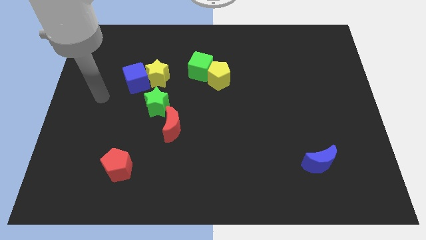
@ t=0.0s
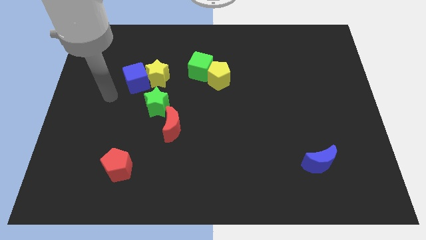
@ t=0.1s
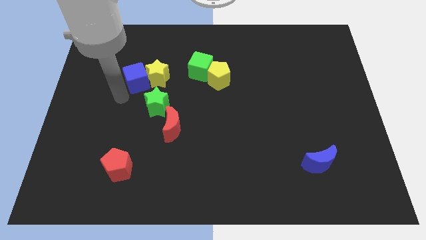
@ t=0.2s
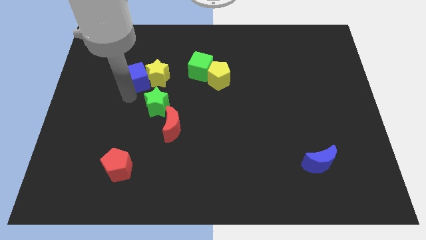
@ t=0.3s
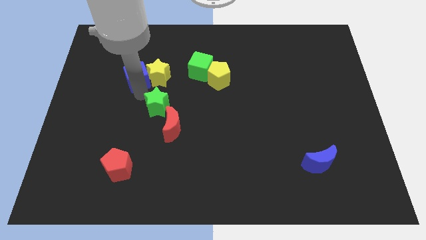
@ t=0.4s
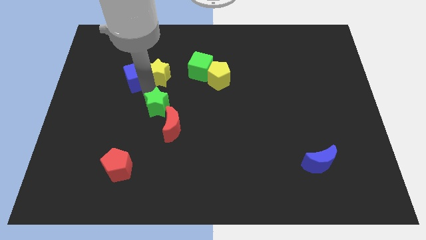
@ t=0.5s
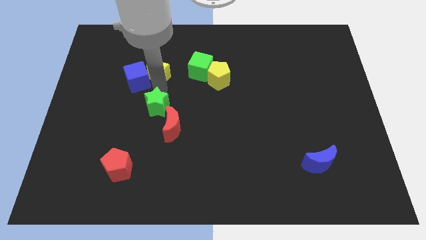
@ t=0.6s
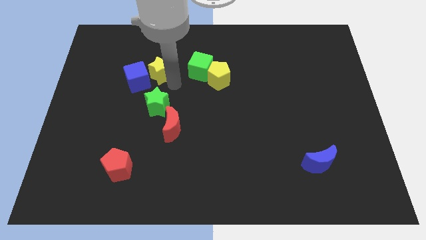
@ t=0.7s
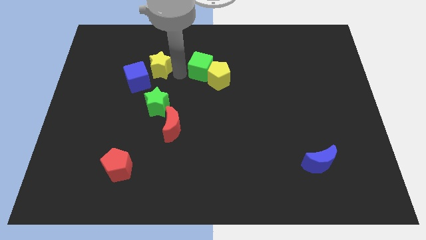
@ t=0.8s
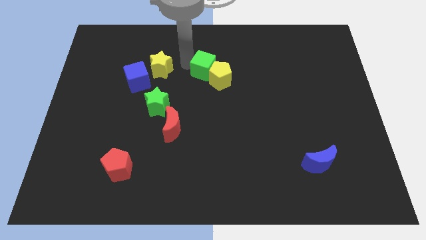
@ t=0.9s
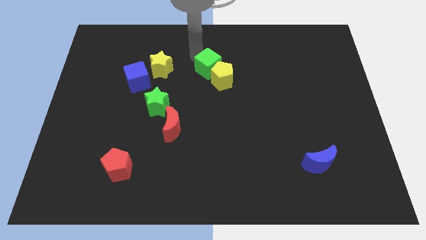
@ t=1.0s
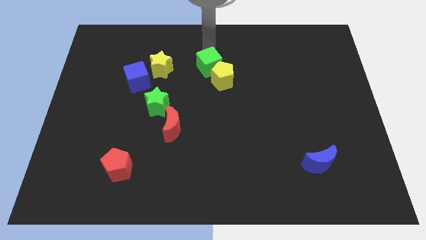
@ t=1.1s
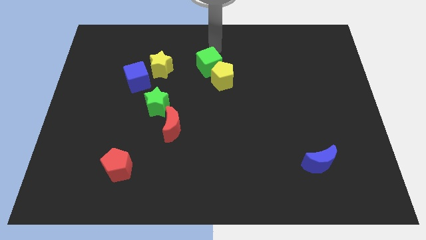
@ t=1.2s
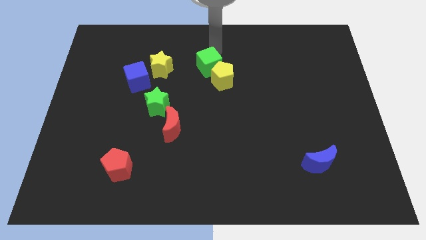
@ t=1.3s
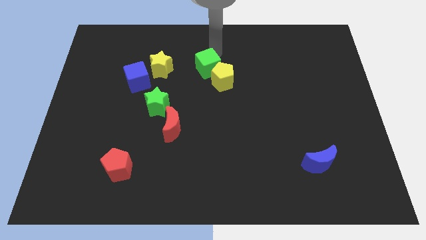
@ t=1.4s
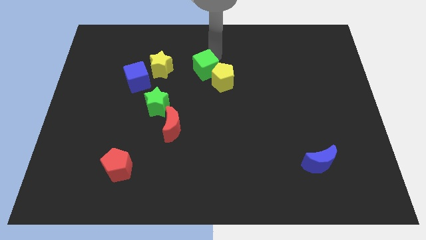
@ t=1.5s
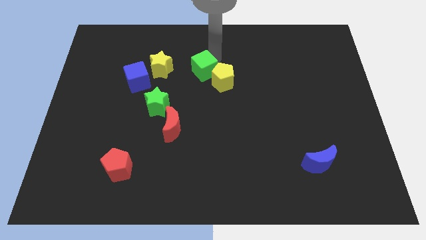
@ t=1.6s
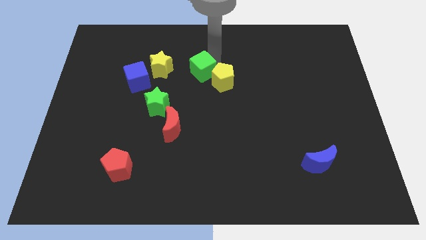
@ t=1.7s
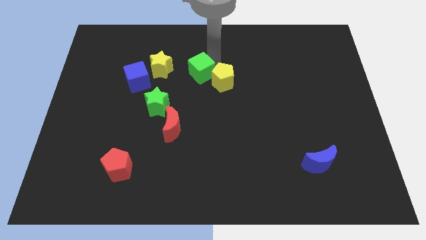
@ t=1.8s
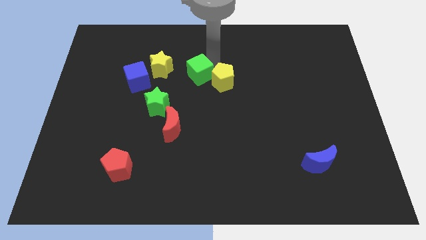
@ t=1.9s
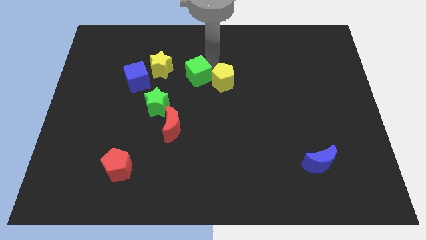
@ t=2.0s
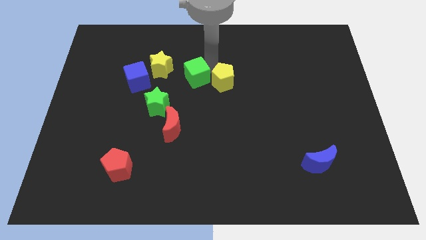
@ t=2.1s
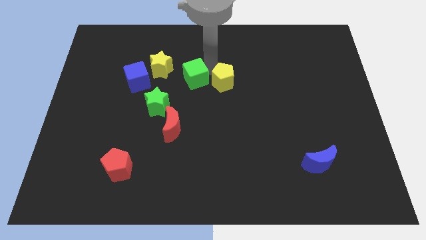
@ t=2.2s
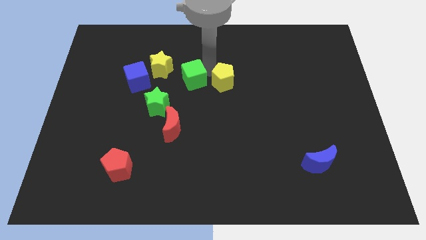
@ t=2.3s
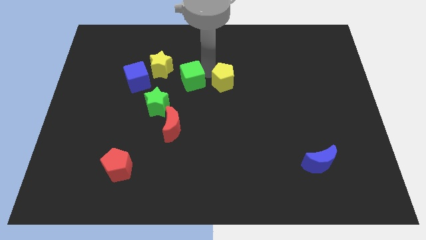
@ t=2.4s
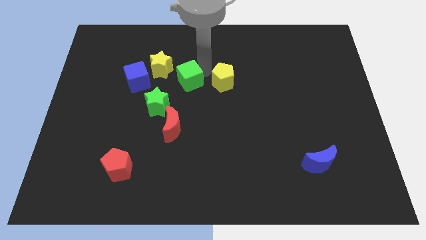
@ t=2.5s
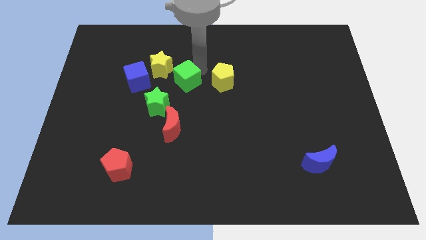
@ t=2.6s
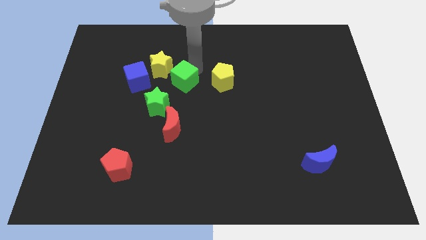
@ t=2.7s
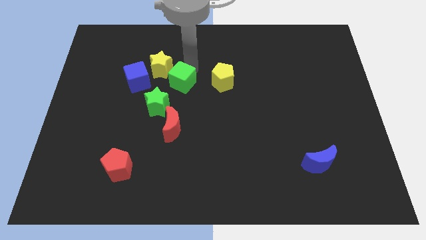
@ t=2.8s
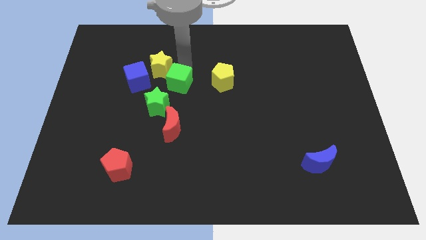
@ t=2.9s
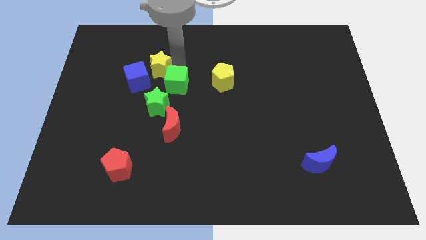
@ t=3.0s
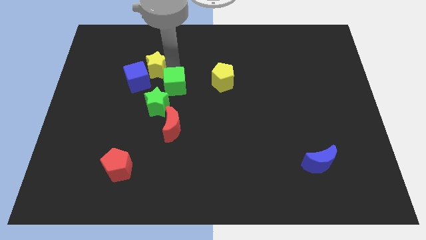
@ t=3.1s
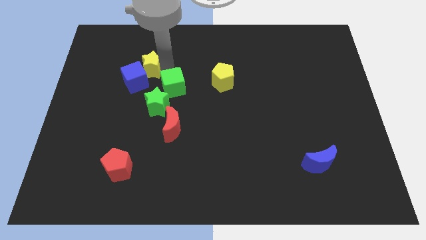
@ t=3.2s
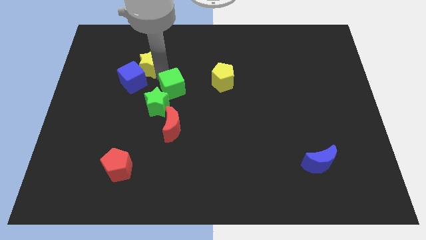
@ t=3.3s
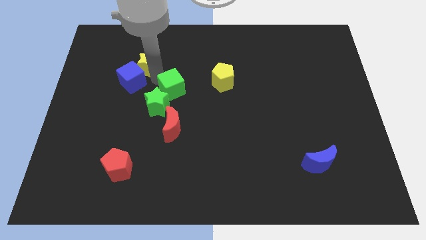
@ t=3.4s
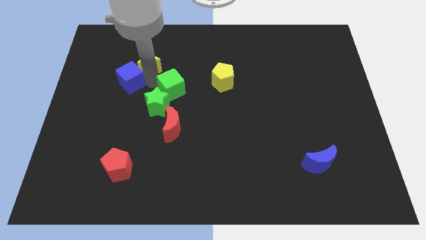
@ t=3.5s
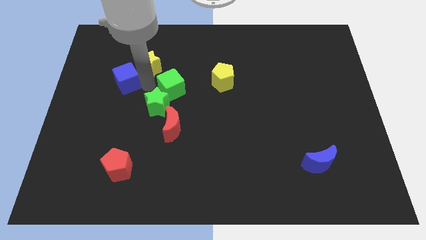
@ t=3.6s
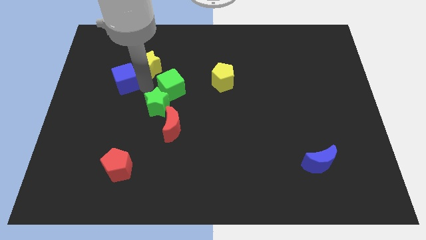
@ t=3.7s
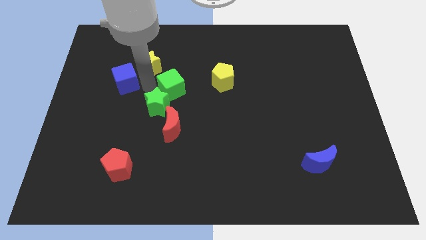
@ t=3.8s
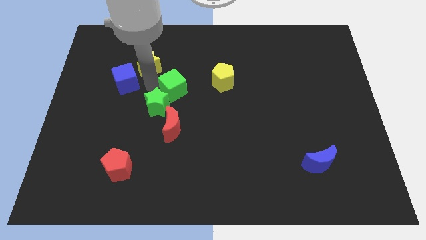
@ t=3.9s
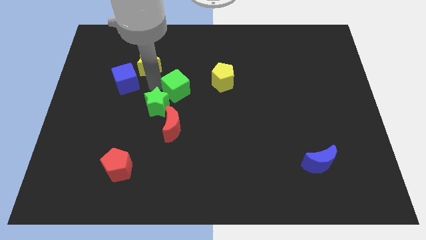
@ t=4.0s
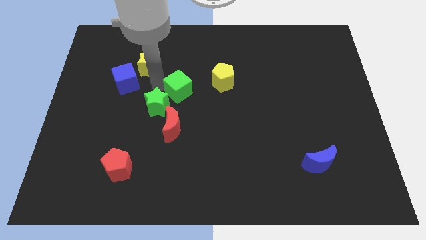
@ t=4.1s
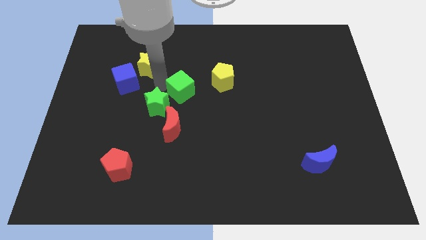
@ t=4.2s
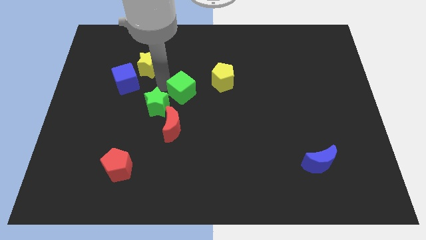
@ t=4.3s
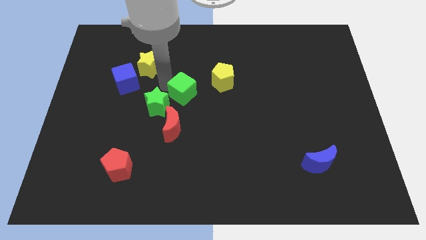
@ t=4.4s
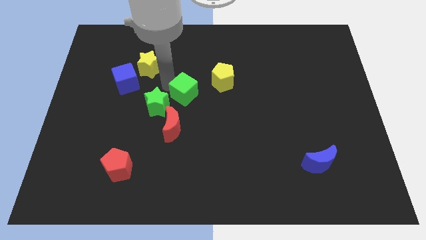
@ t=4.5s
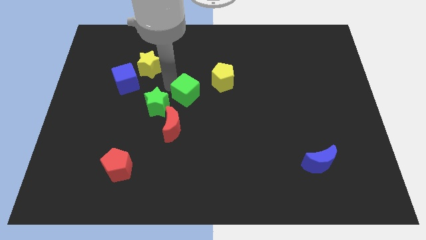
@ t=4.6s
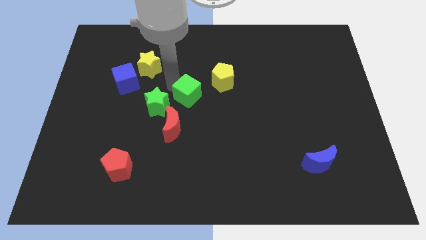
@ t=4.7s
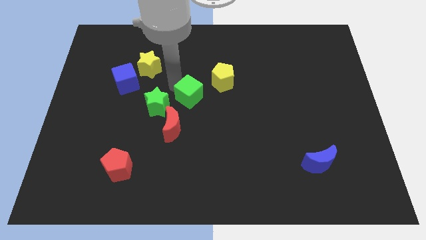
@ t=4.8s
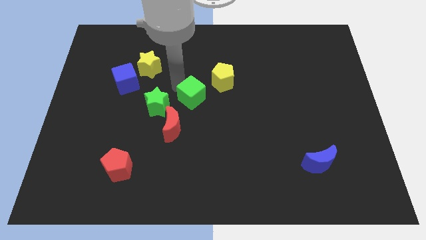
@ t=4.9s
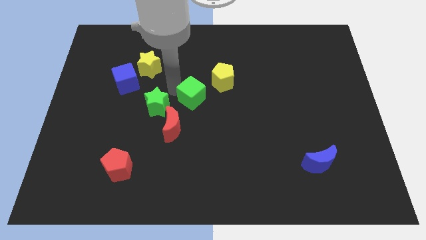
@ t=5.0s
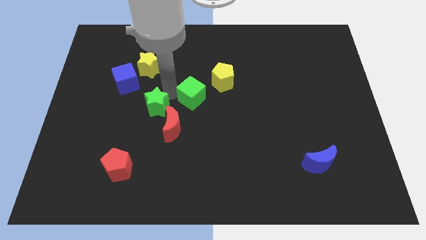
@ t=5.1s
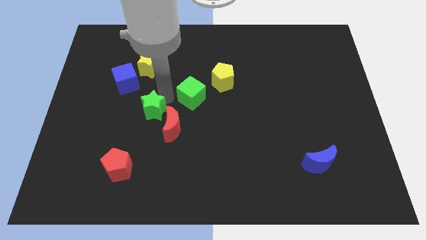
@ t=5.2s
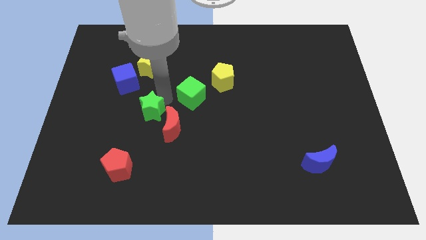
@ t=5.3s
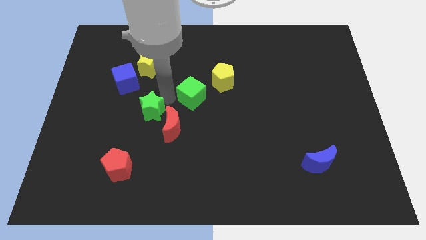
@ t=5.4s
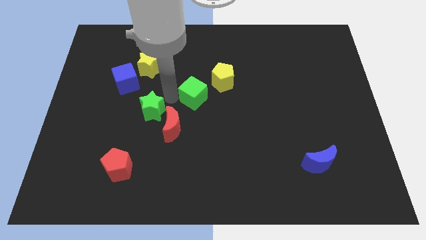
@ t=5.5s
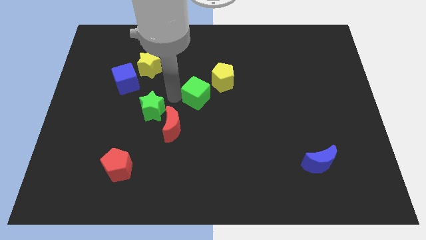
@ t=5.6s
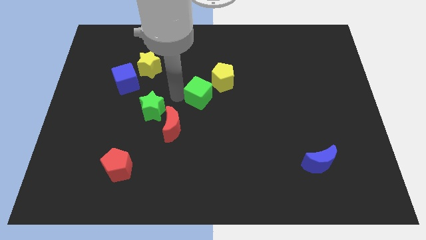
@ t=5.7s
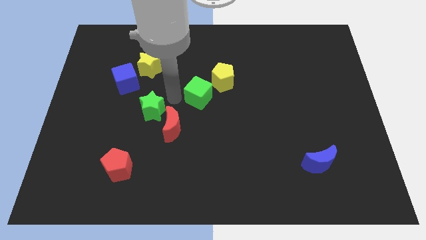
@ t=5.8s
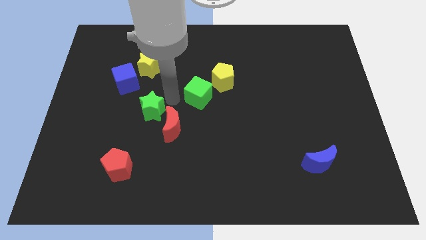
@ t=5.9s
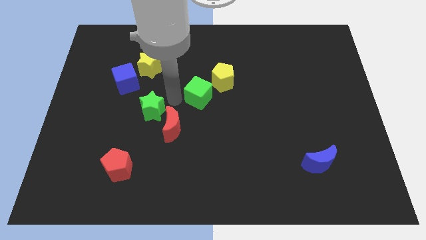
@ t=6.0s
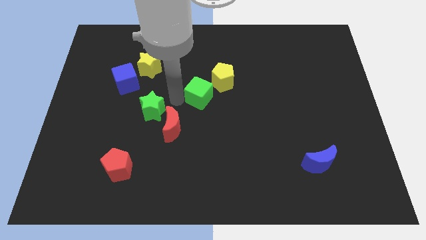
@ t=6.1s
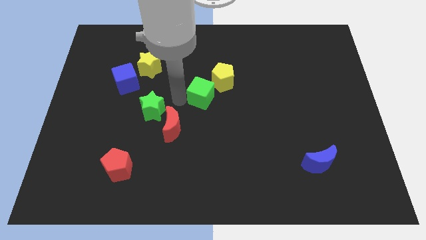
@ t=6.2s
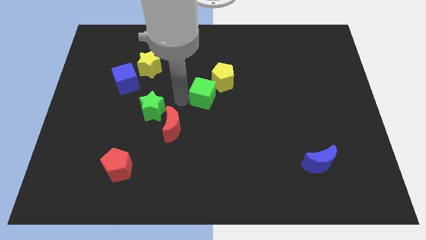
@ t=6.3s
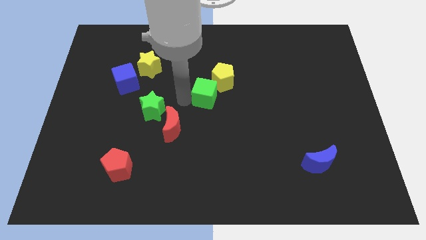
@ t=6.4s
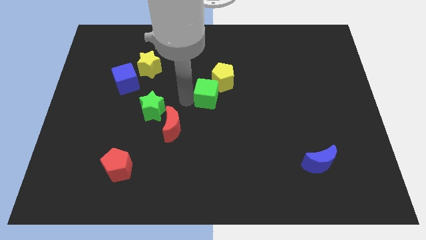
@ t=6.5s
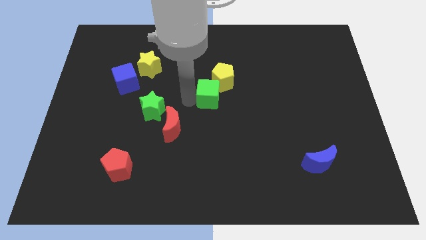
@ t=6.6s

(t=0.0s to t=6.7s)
slightly push the green cube down and to the right

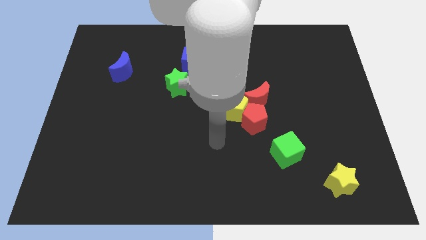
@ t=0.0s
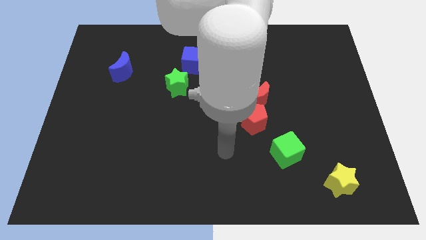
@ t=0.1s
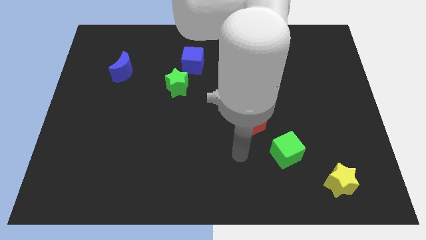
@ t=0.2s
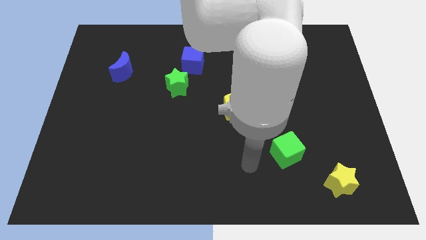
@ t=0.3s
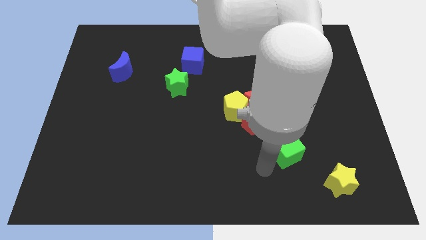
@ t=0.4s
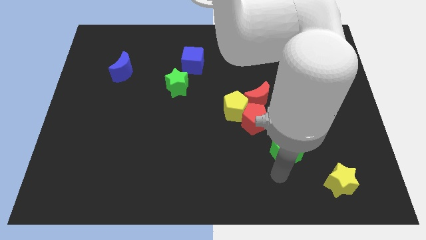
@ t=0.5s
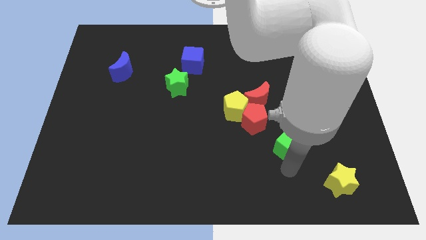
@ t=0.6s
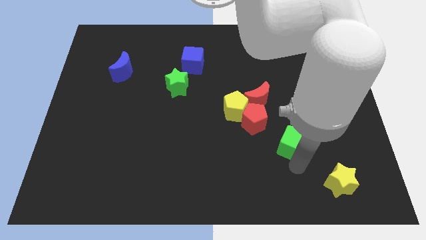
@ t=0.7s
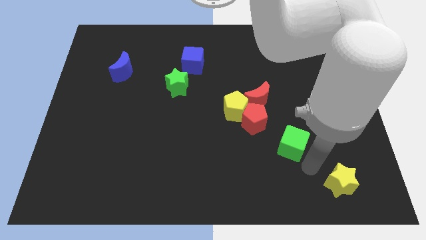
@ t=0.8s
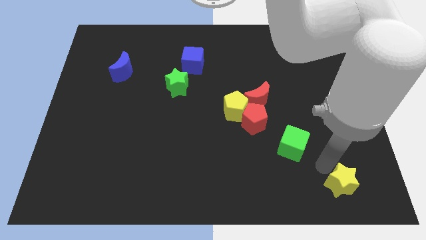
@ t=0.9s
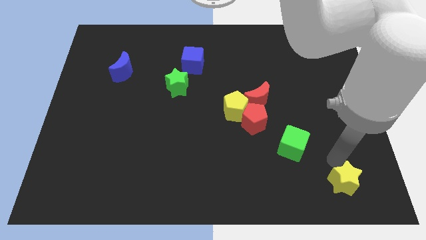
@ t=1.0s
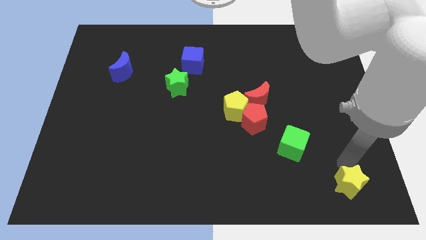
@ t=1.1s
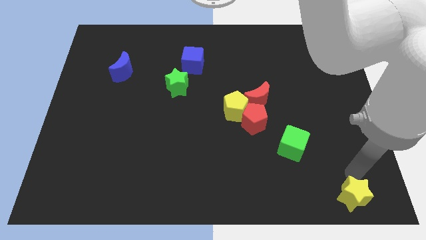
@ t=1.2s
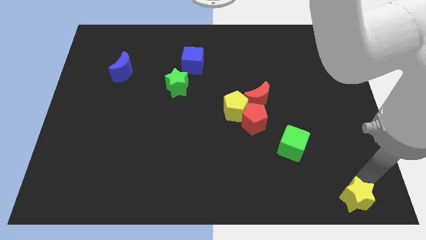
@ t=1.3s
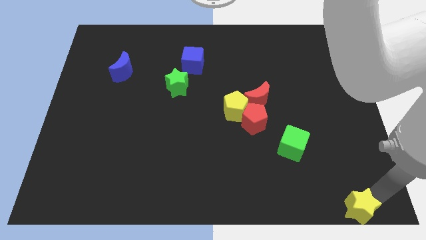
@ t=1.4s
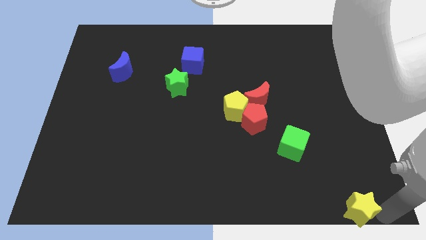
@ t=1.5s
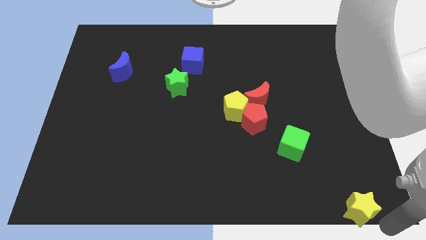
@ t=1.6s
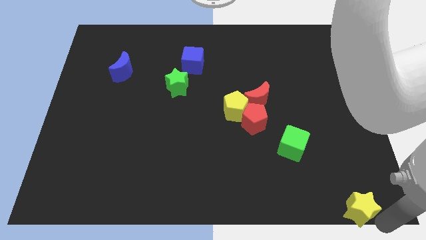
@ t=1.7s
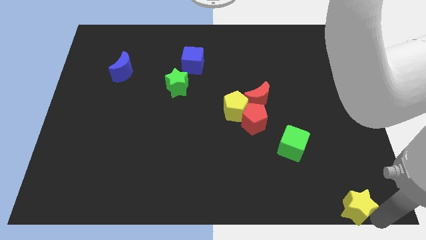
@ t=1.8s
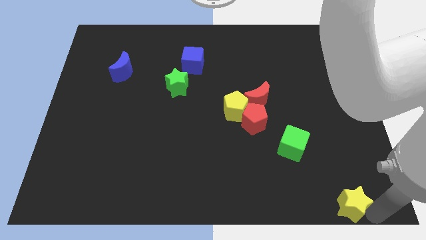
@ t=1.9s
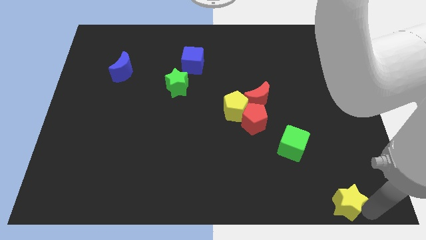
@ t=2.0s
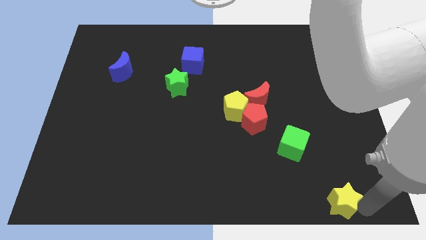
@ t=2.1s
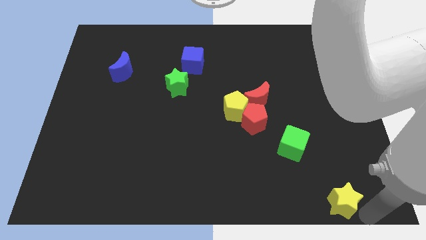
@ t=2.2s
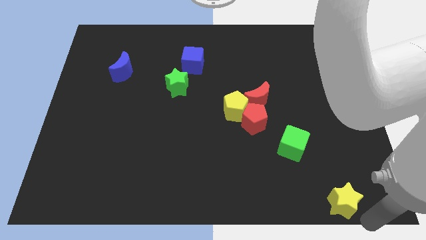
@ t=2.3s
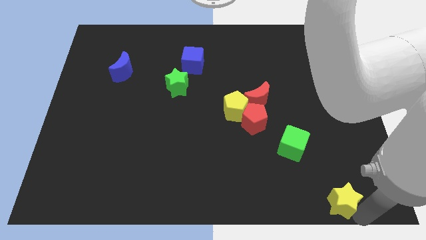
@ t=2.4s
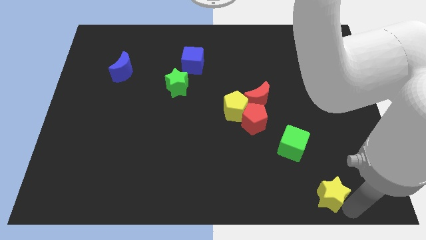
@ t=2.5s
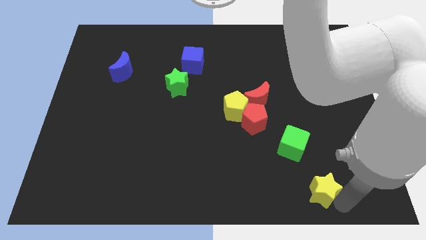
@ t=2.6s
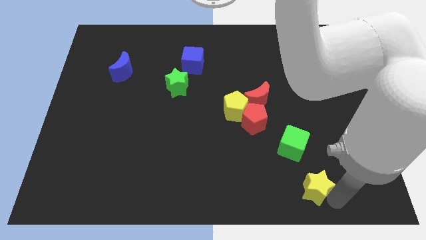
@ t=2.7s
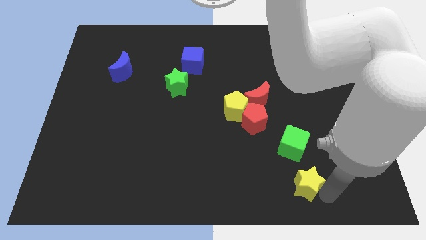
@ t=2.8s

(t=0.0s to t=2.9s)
slightly move the yellow star left
